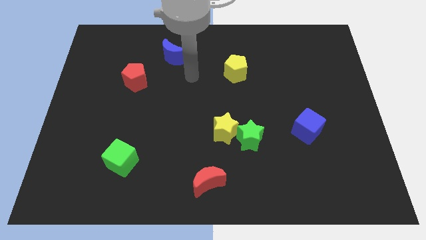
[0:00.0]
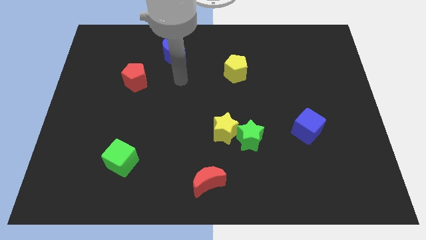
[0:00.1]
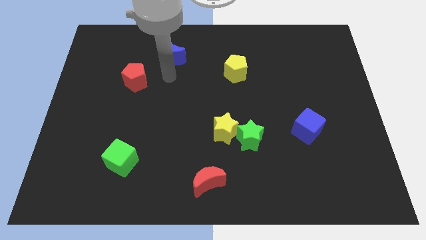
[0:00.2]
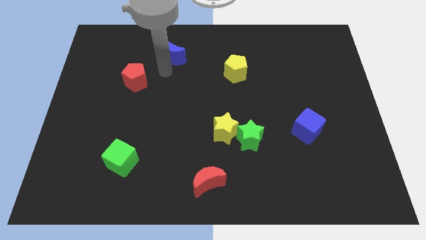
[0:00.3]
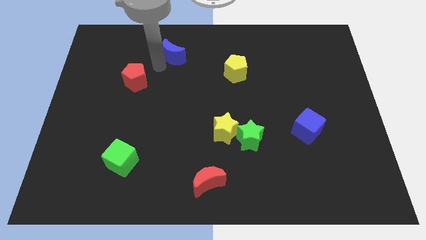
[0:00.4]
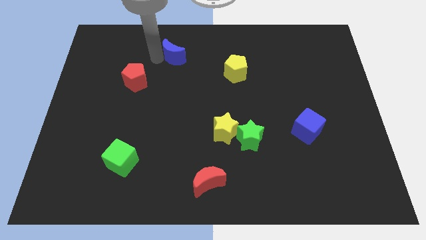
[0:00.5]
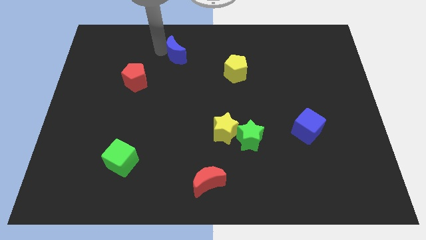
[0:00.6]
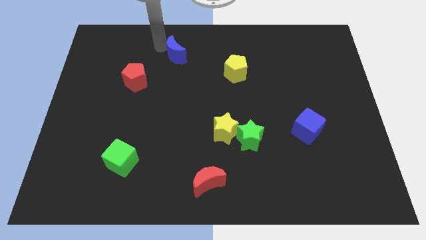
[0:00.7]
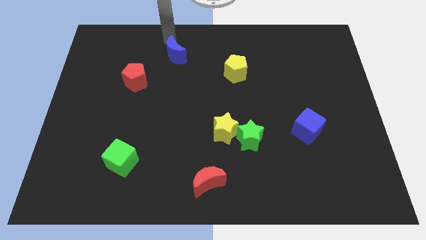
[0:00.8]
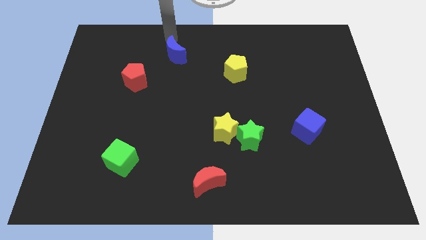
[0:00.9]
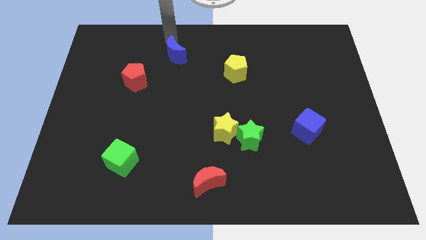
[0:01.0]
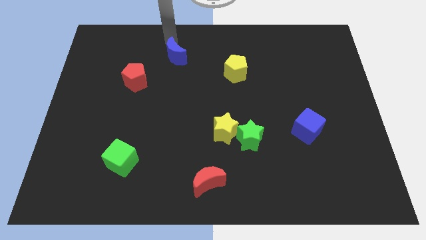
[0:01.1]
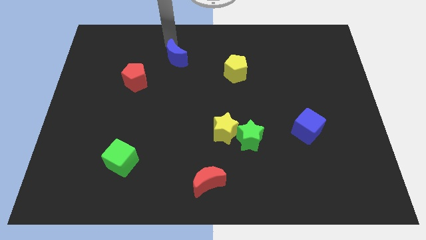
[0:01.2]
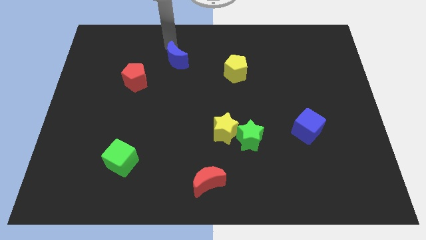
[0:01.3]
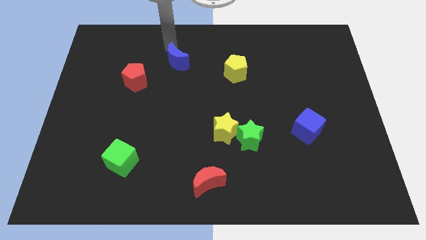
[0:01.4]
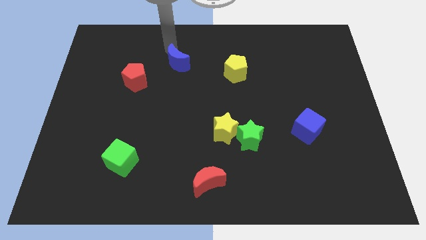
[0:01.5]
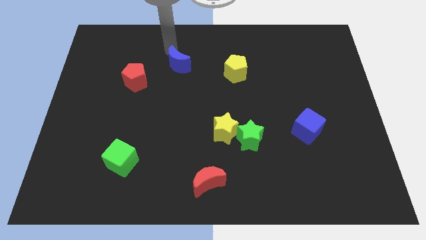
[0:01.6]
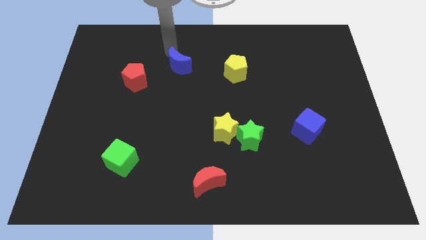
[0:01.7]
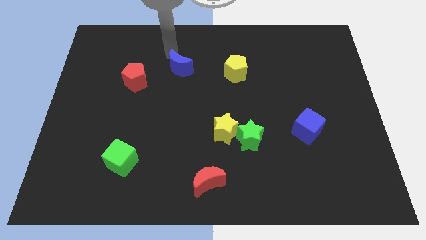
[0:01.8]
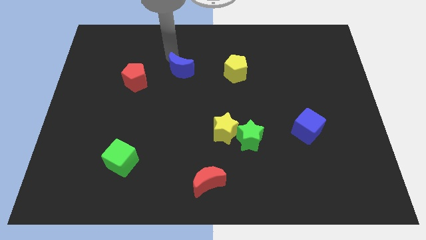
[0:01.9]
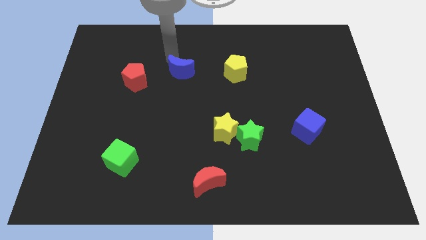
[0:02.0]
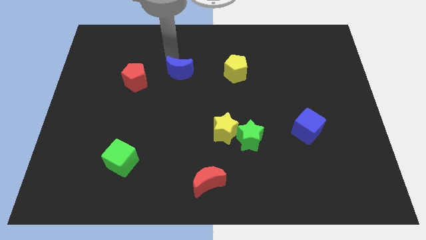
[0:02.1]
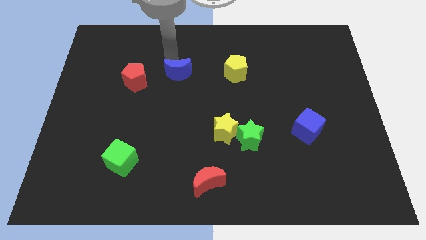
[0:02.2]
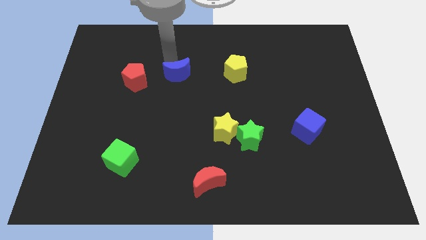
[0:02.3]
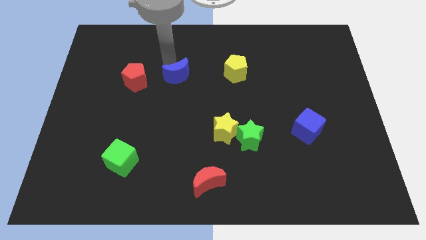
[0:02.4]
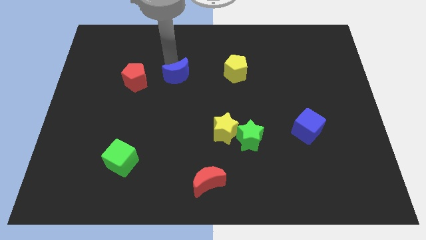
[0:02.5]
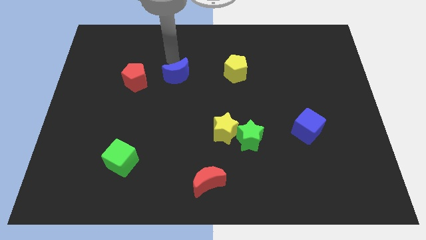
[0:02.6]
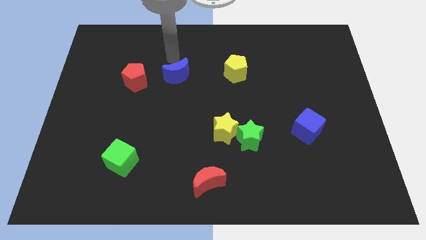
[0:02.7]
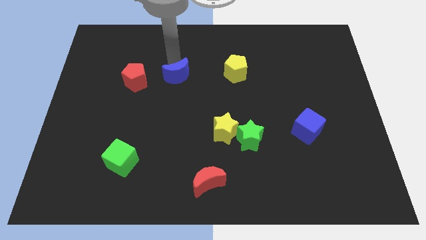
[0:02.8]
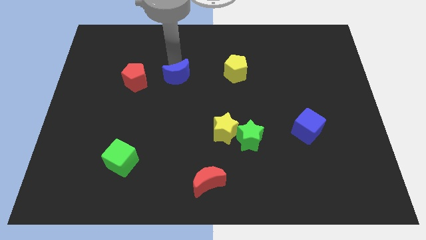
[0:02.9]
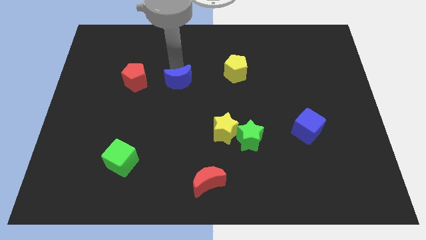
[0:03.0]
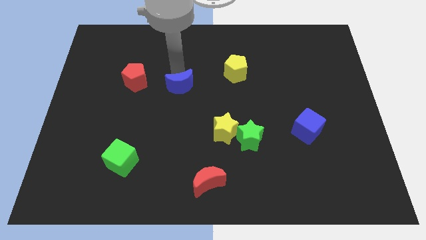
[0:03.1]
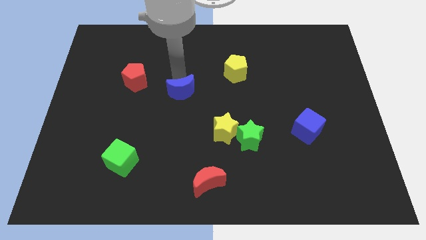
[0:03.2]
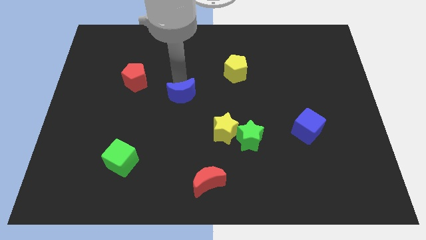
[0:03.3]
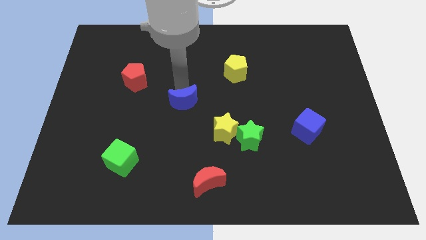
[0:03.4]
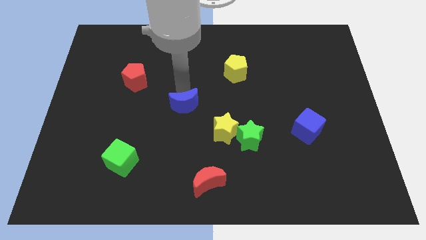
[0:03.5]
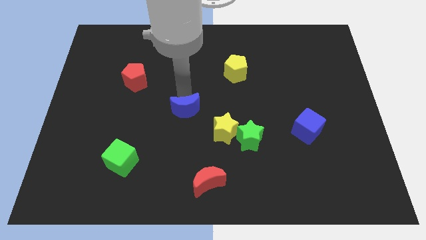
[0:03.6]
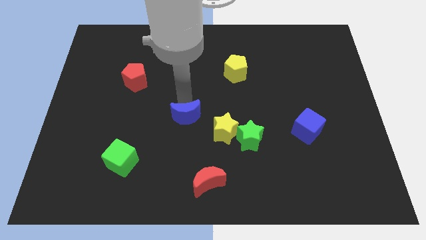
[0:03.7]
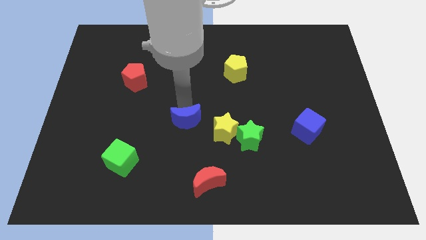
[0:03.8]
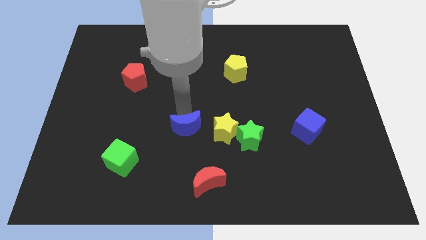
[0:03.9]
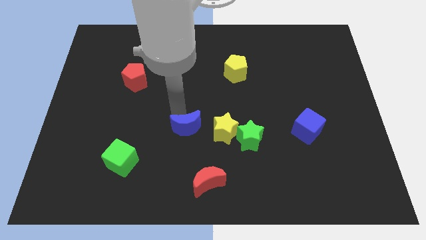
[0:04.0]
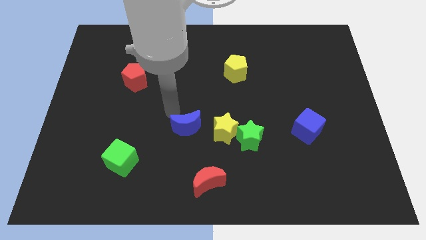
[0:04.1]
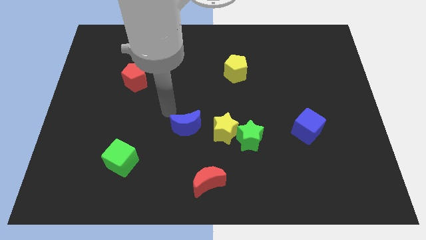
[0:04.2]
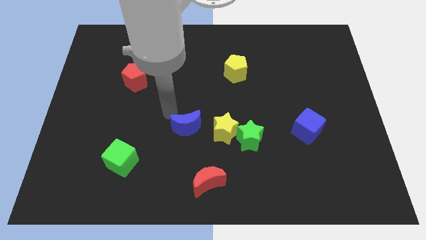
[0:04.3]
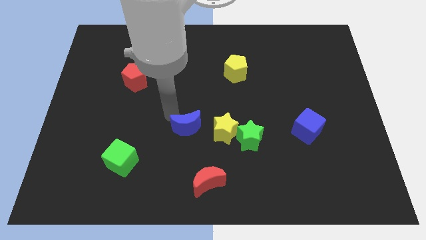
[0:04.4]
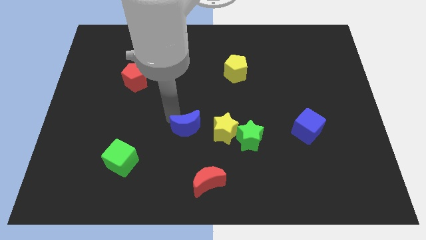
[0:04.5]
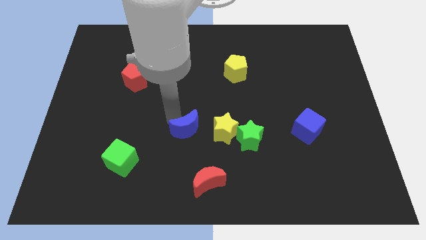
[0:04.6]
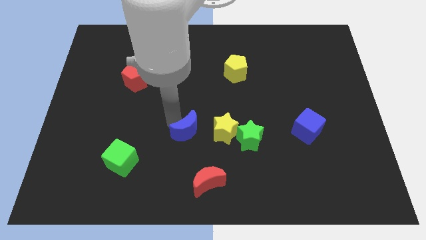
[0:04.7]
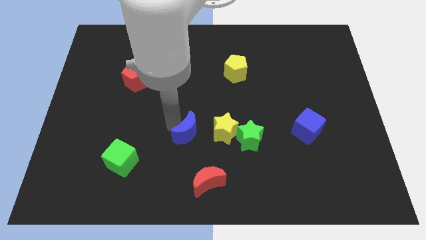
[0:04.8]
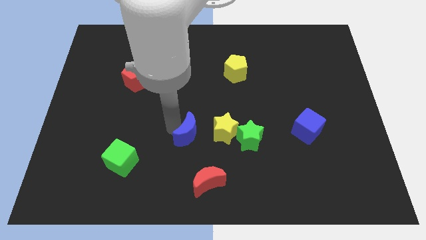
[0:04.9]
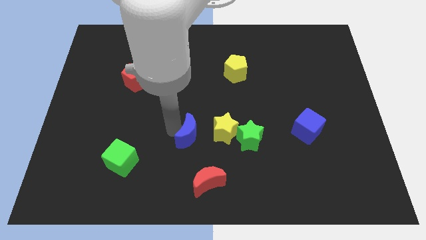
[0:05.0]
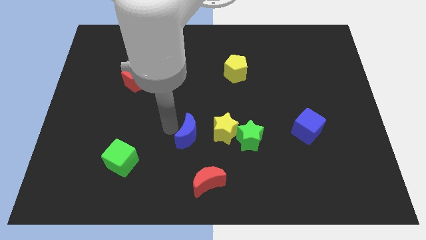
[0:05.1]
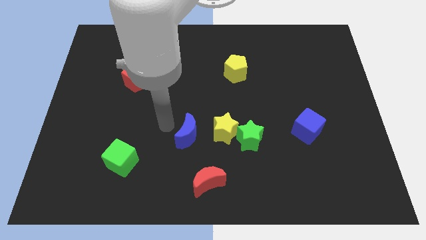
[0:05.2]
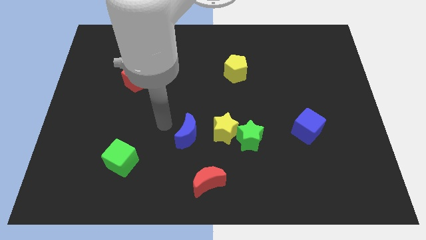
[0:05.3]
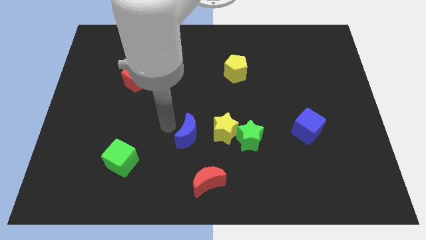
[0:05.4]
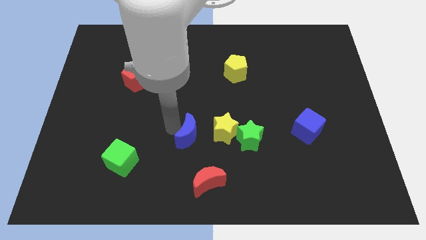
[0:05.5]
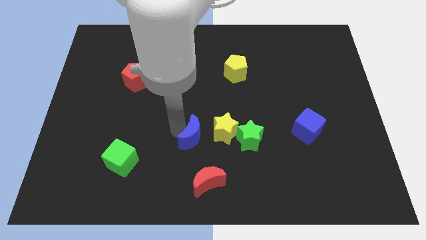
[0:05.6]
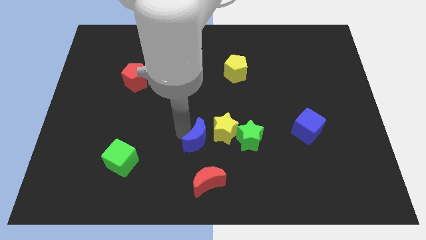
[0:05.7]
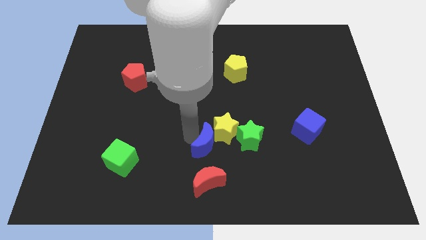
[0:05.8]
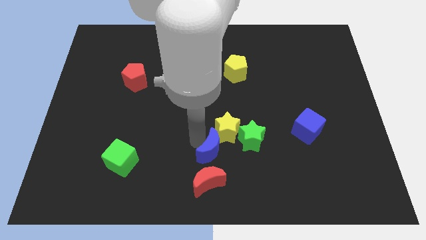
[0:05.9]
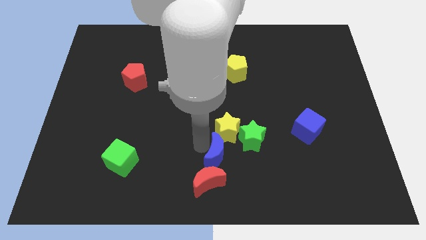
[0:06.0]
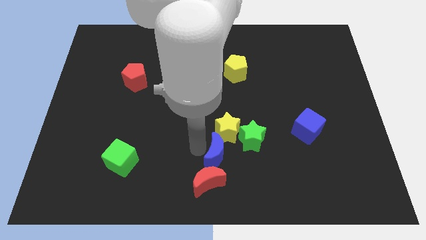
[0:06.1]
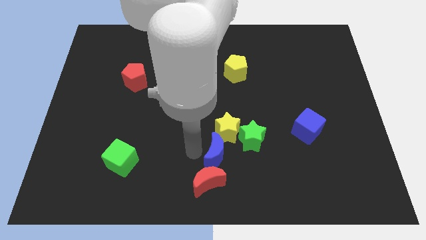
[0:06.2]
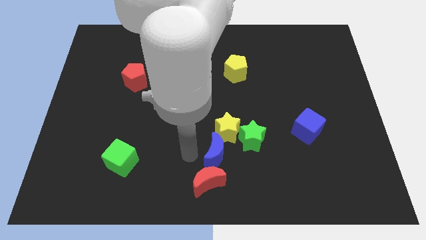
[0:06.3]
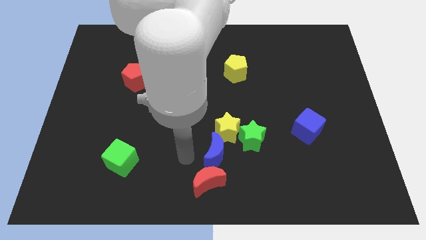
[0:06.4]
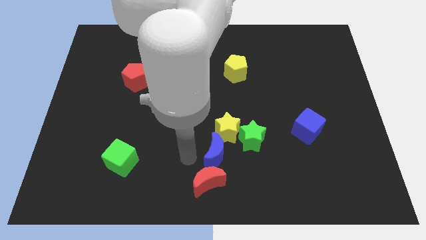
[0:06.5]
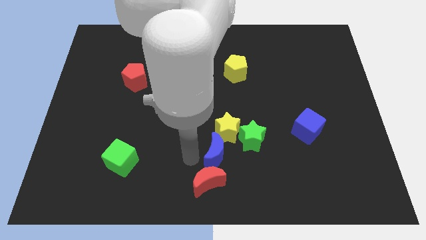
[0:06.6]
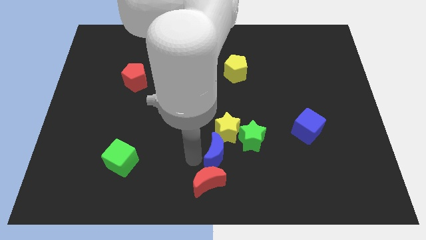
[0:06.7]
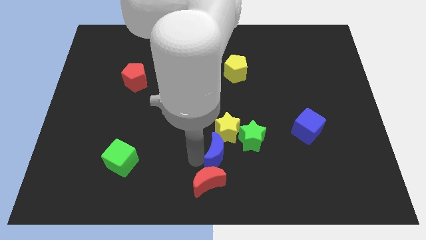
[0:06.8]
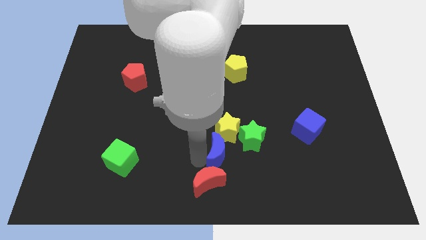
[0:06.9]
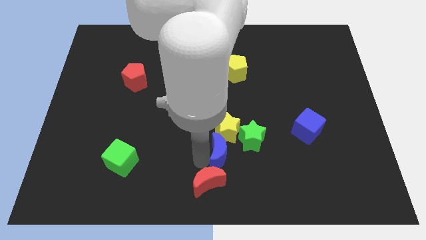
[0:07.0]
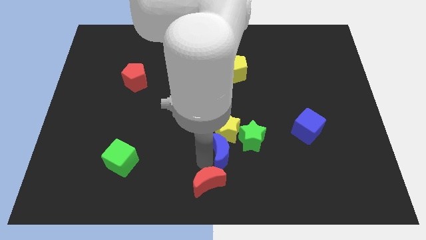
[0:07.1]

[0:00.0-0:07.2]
move the blue moon diagonally down and to the right of the yellow star

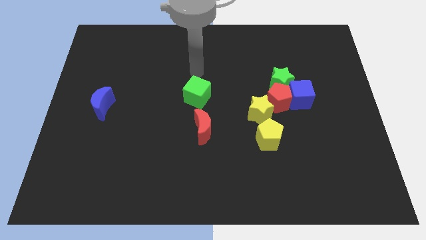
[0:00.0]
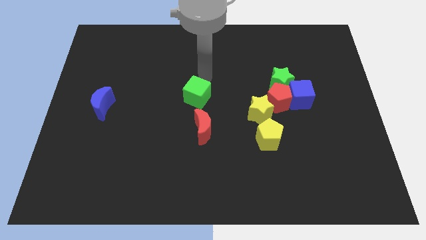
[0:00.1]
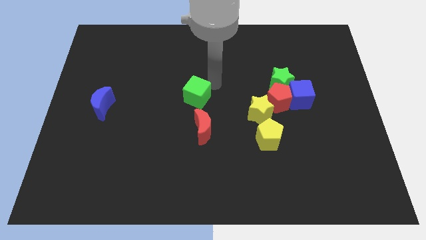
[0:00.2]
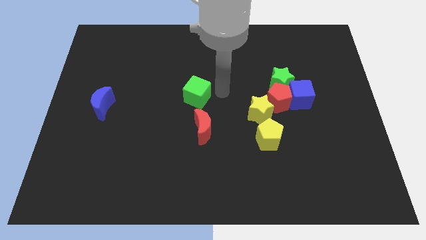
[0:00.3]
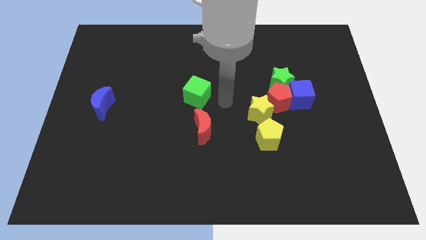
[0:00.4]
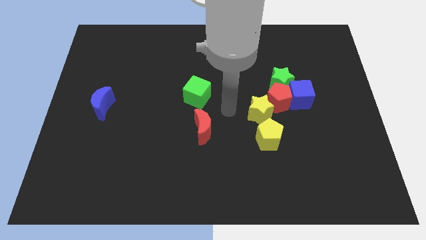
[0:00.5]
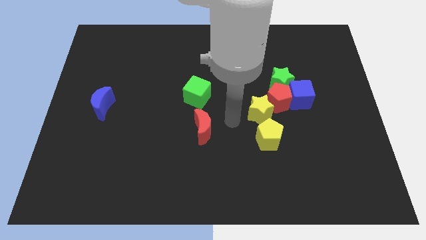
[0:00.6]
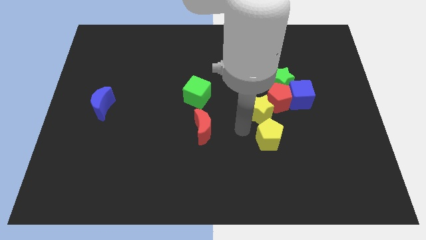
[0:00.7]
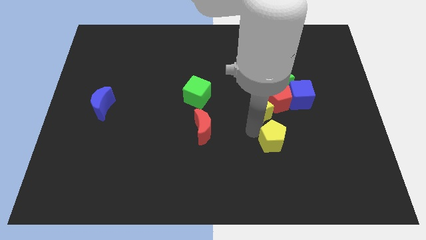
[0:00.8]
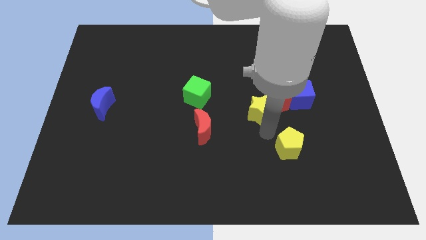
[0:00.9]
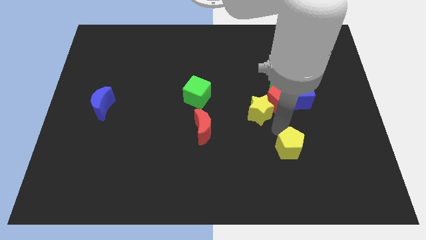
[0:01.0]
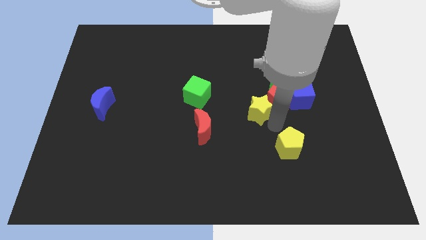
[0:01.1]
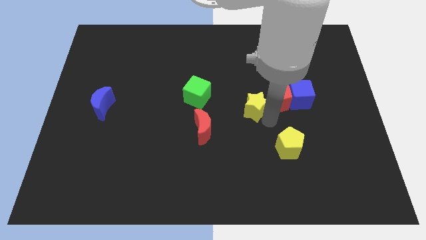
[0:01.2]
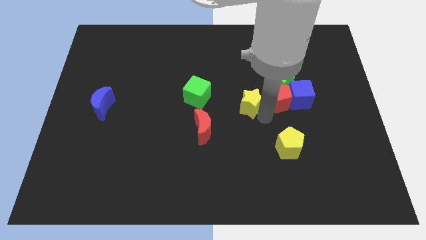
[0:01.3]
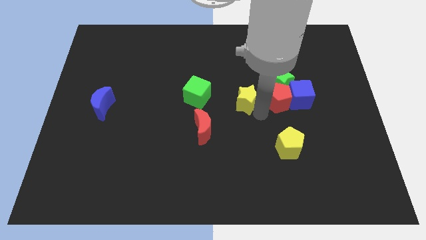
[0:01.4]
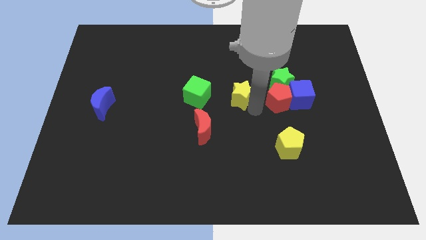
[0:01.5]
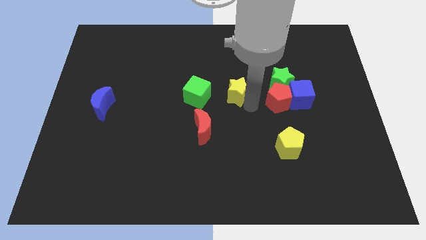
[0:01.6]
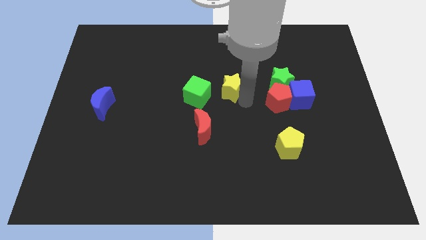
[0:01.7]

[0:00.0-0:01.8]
push the yellow star to the top right of the green cube
